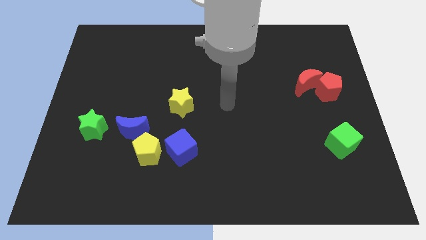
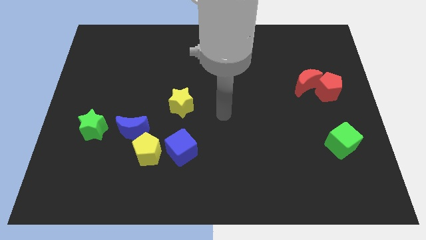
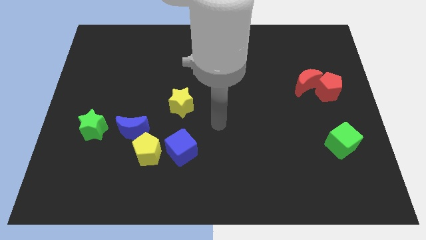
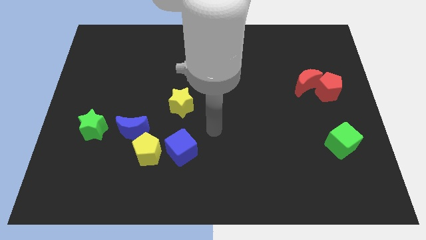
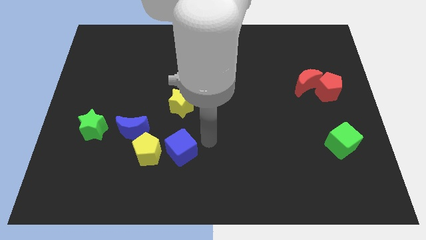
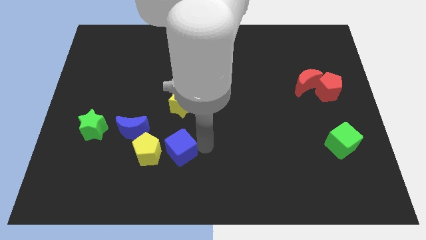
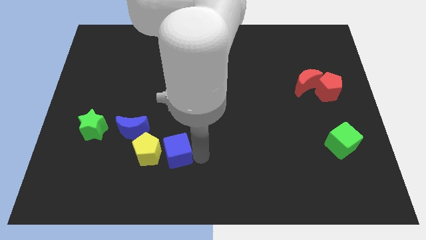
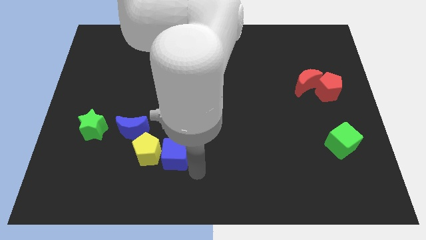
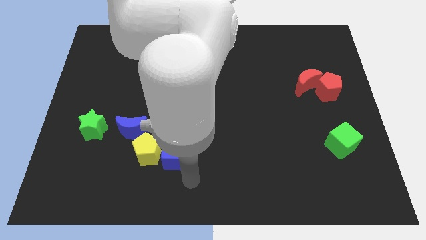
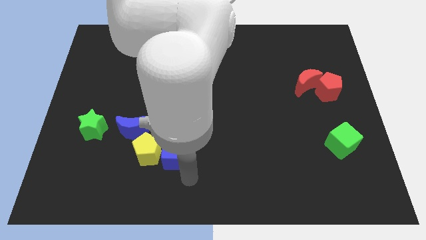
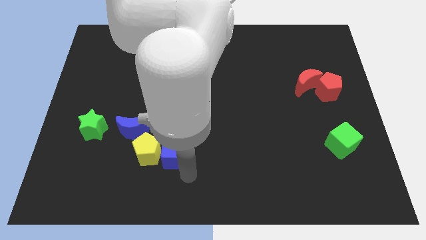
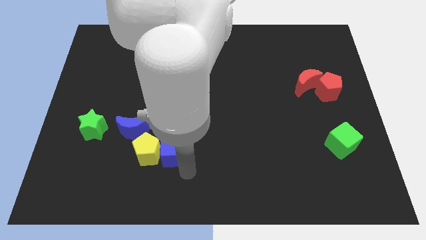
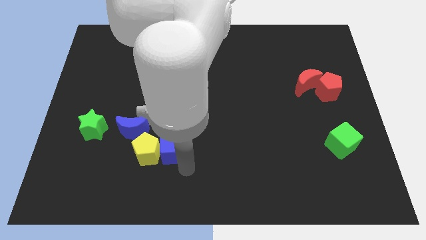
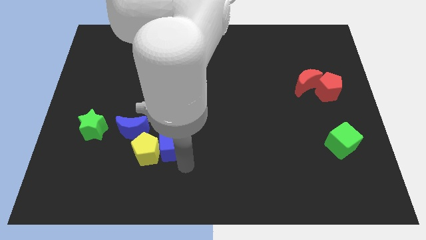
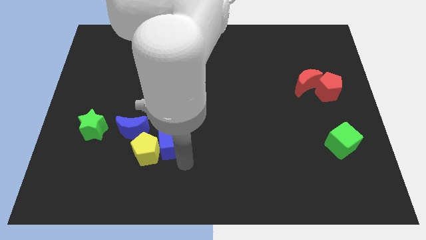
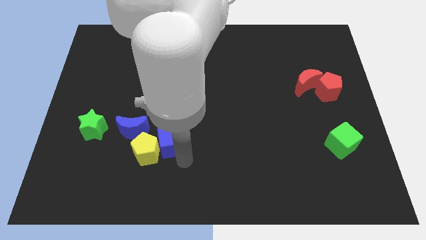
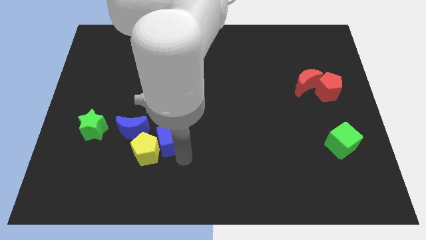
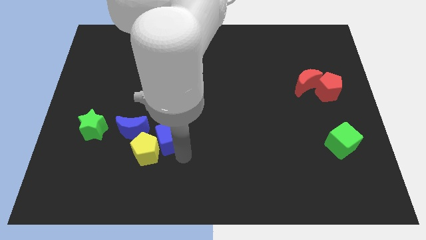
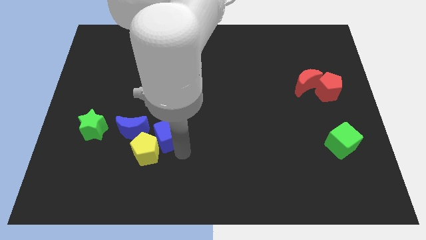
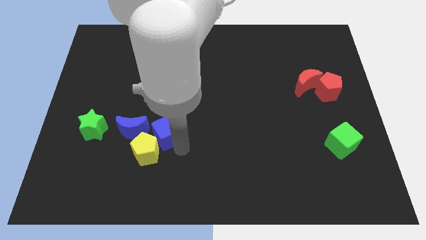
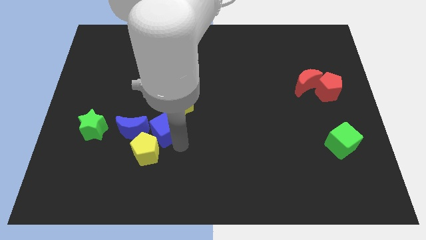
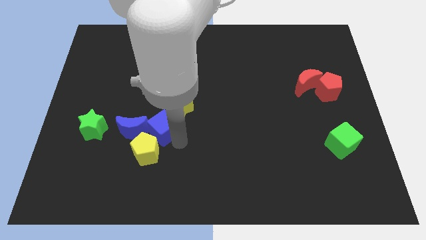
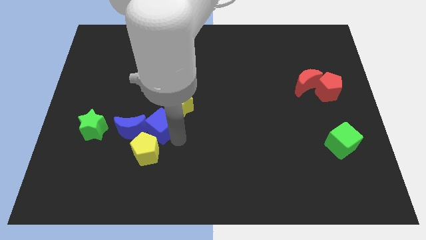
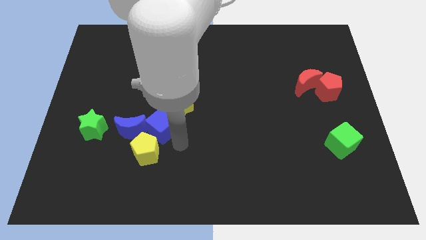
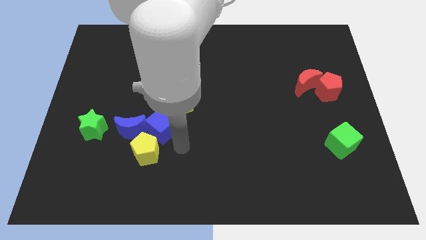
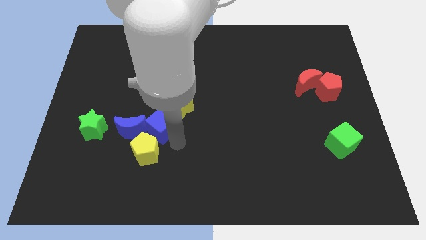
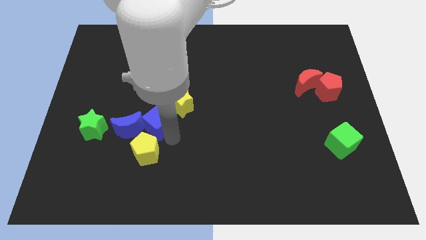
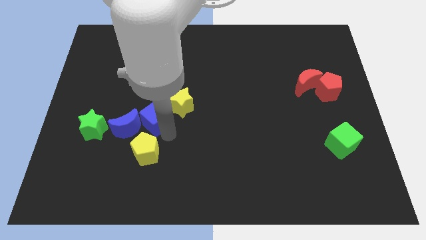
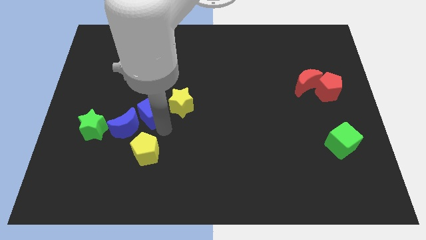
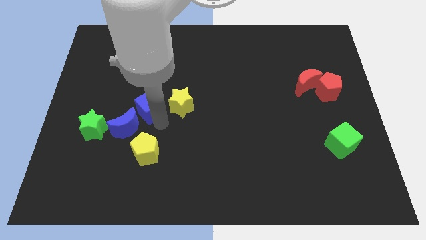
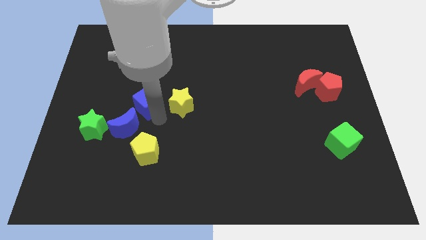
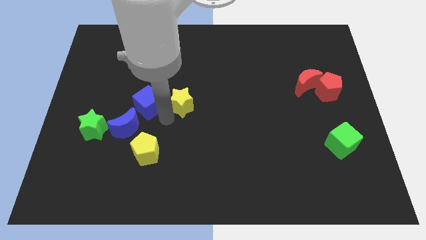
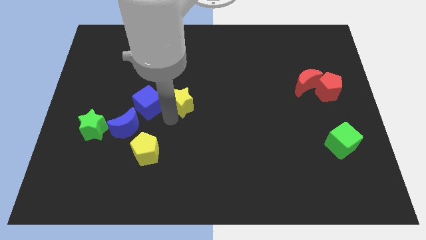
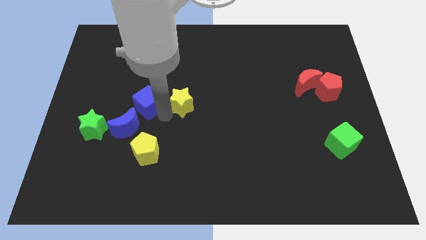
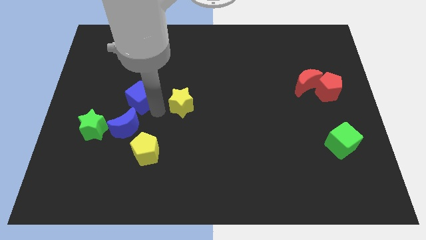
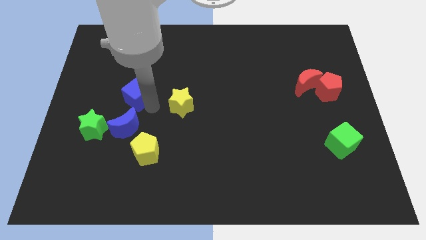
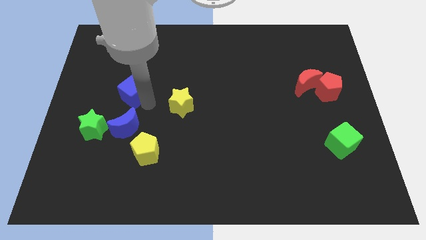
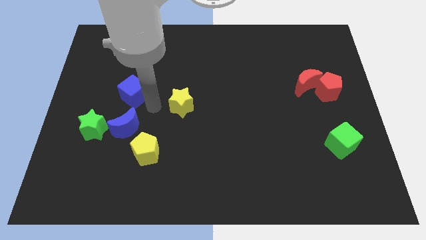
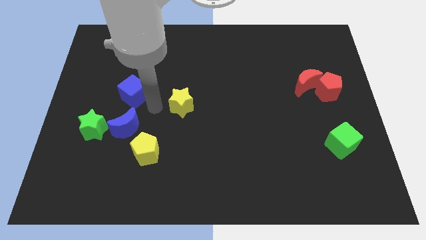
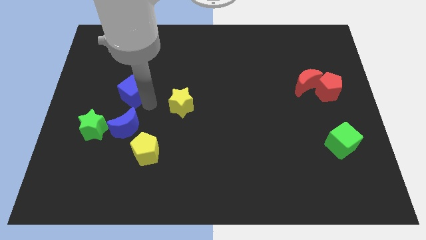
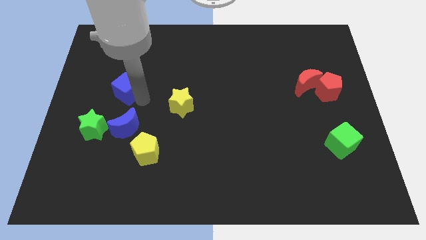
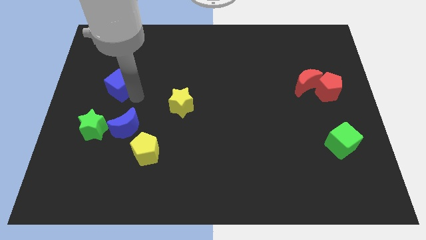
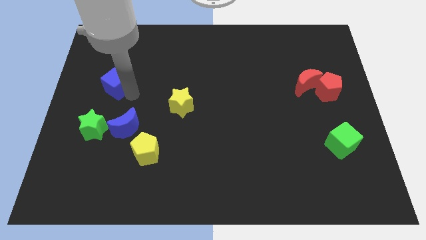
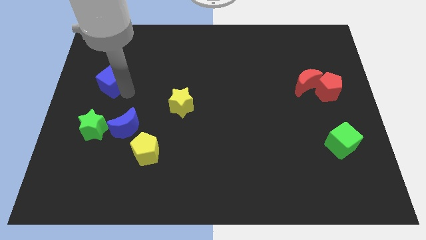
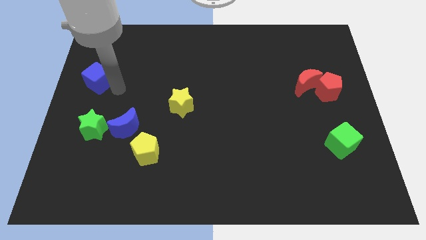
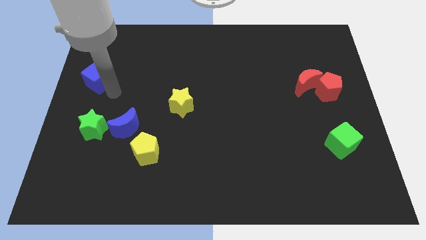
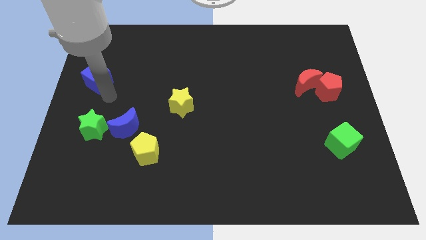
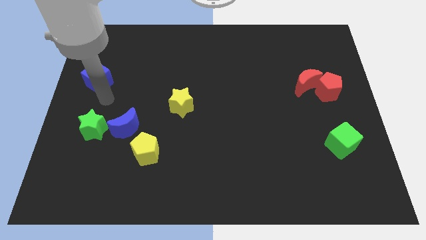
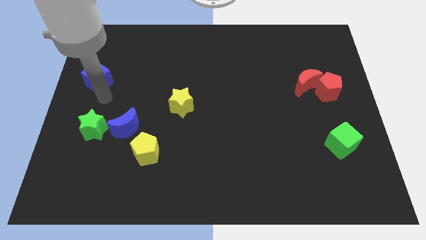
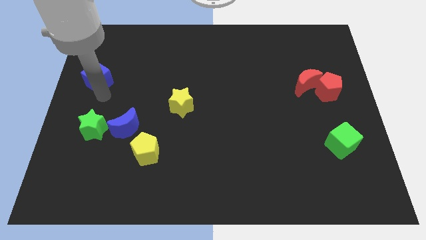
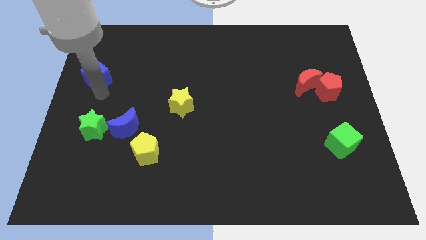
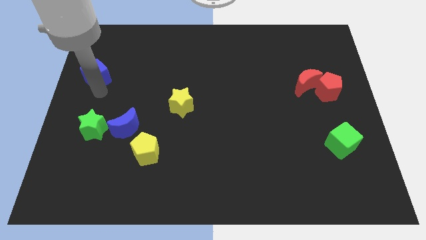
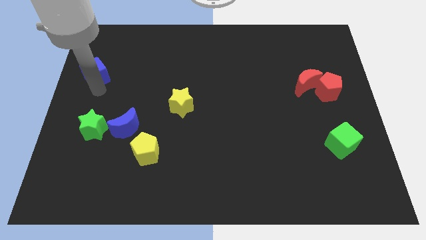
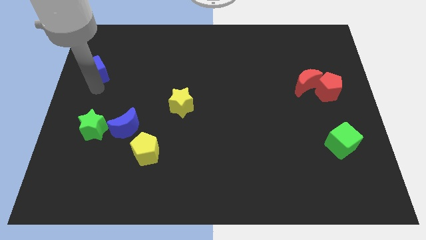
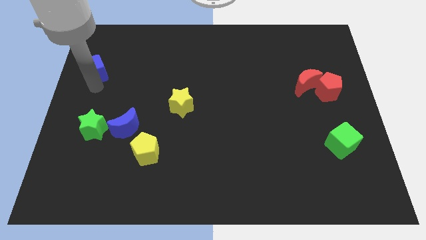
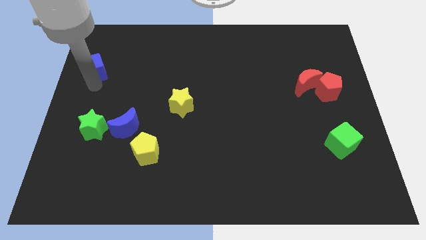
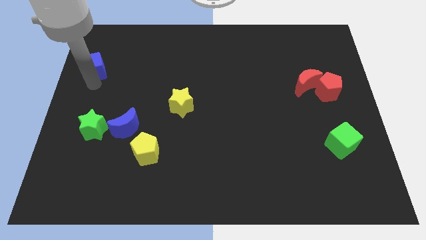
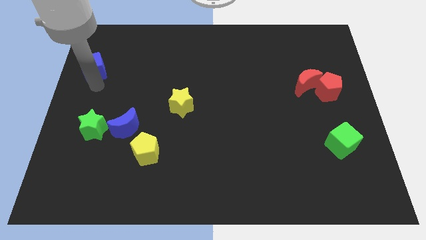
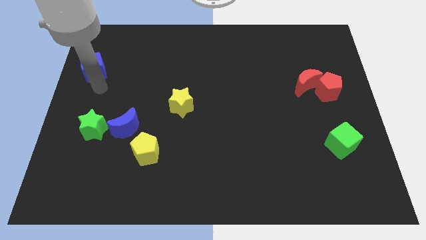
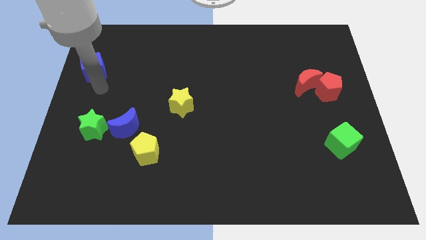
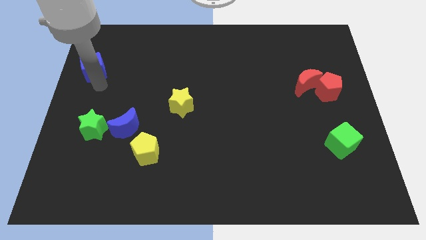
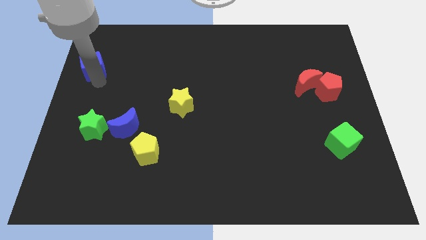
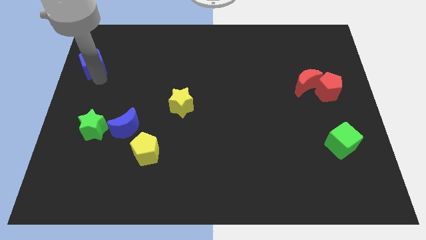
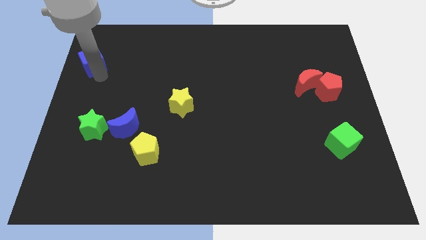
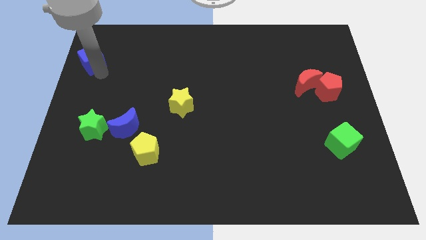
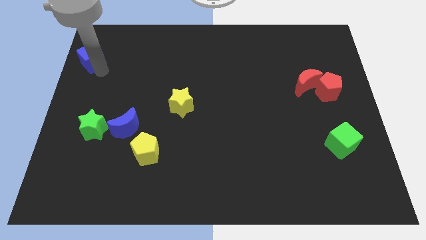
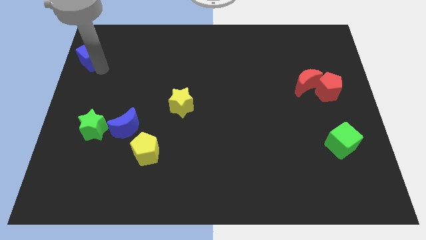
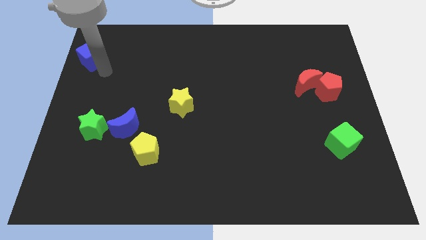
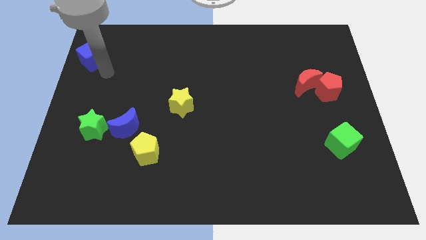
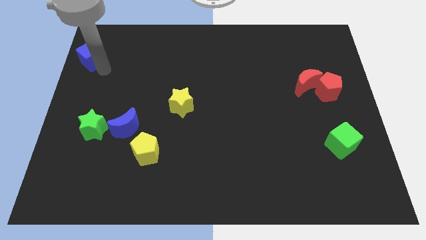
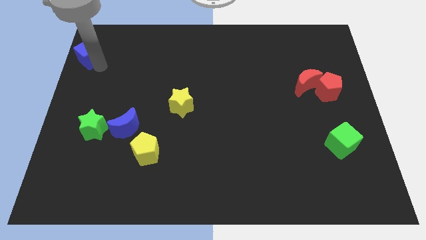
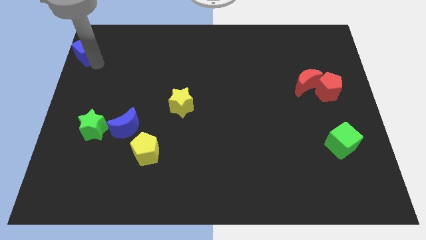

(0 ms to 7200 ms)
slide the blue cube to the upper left corner
